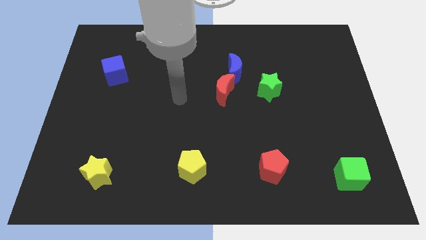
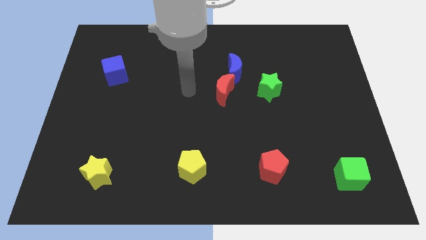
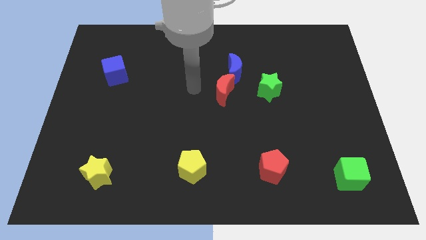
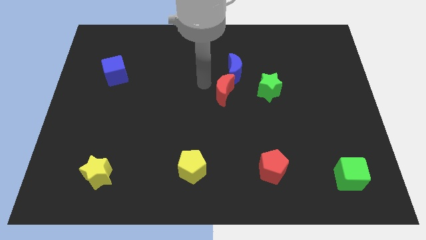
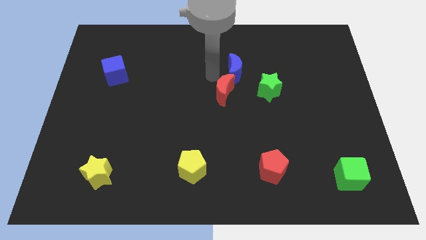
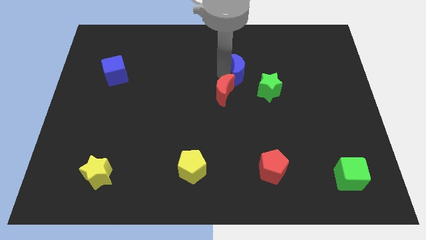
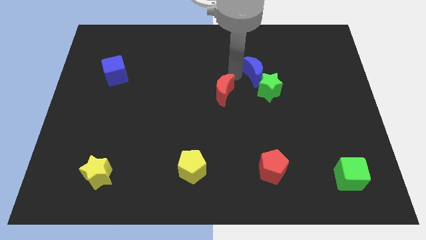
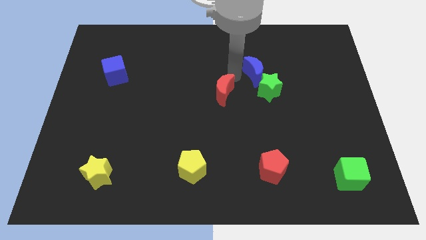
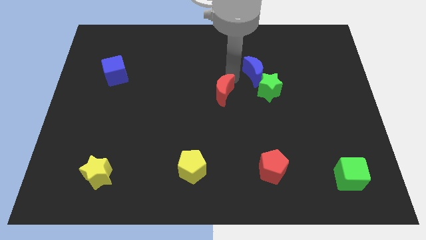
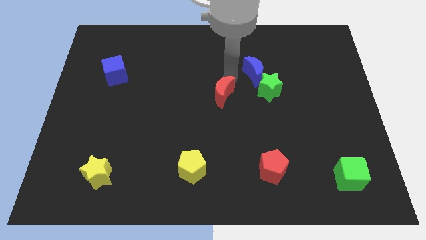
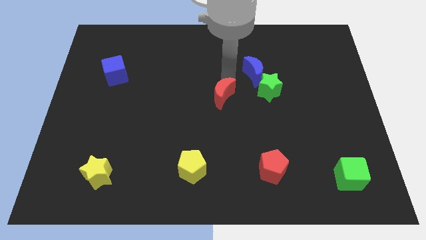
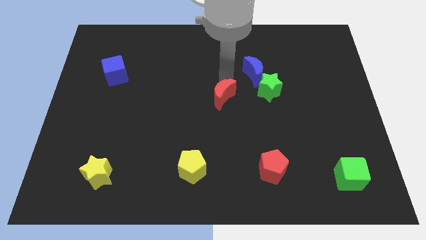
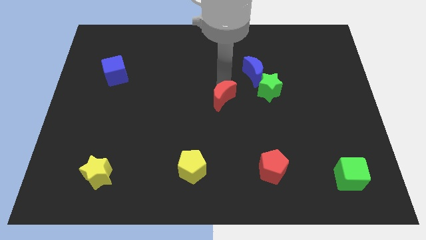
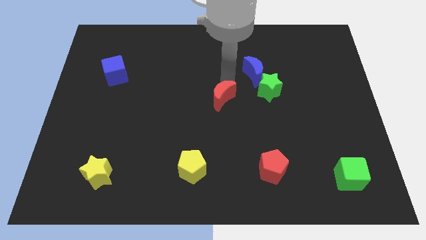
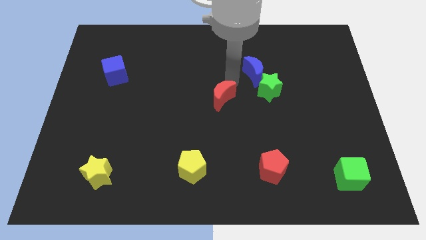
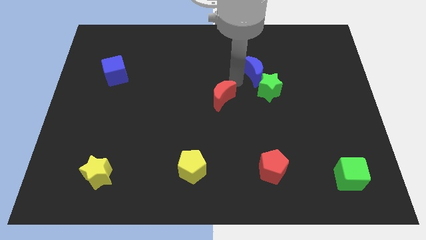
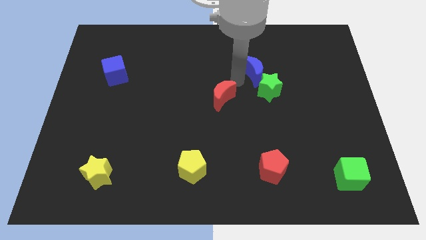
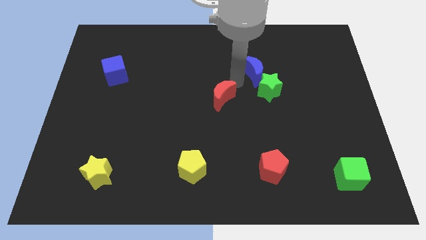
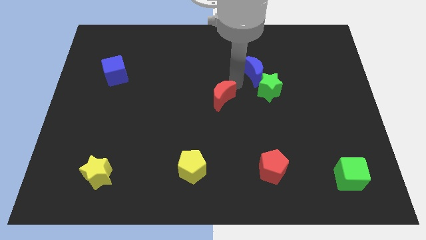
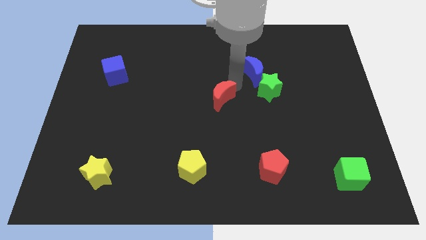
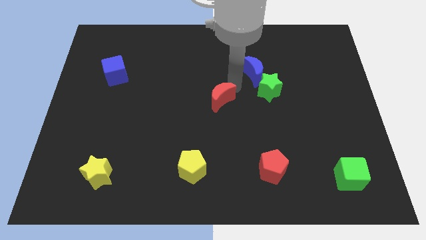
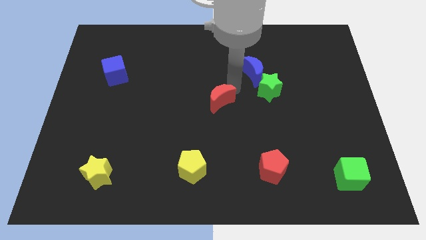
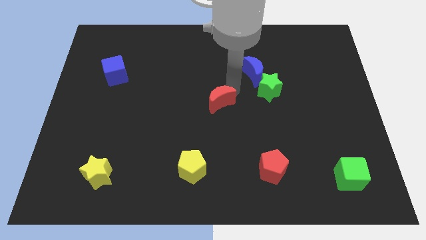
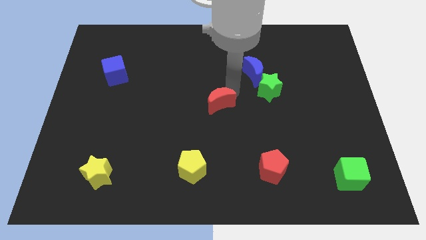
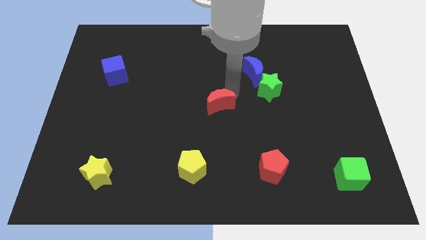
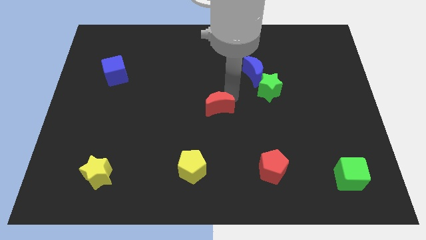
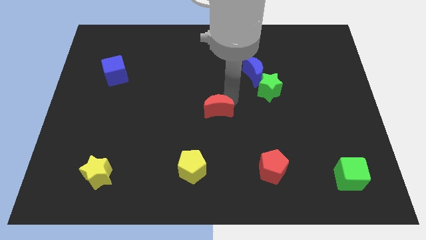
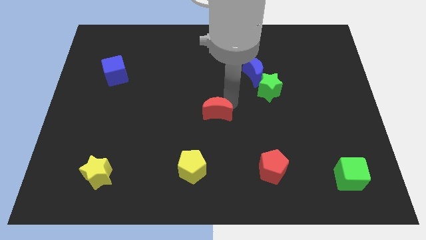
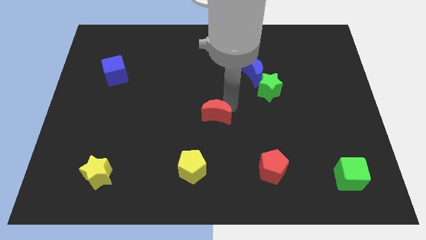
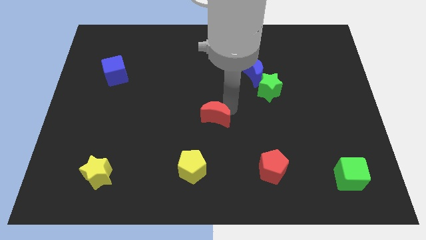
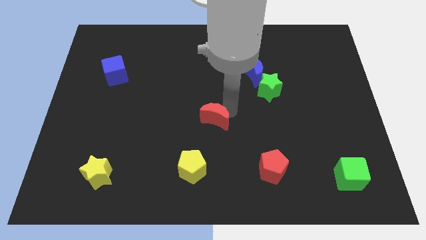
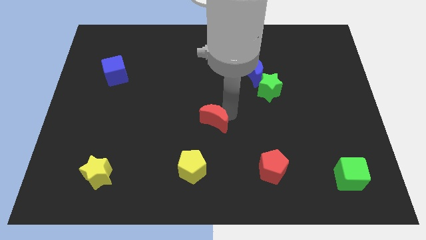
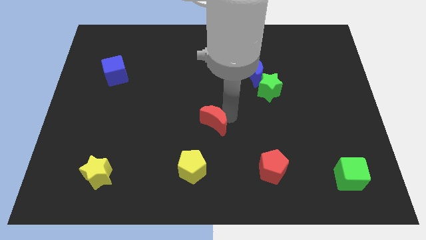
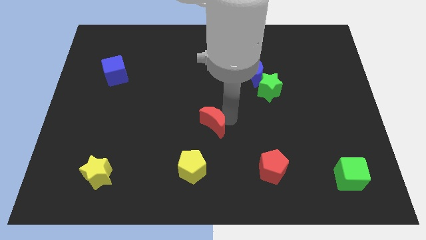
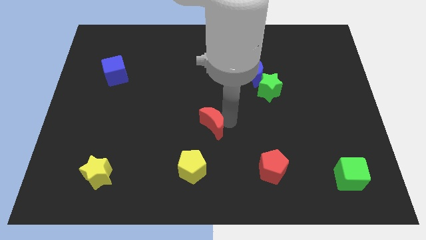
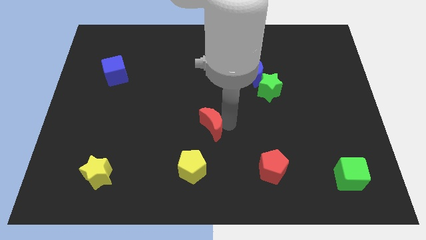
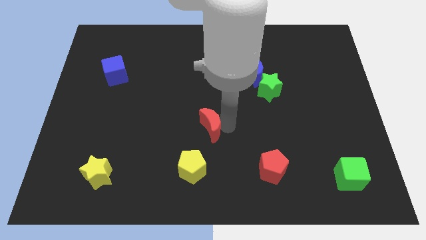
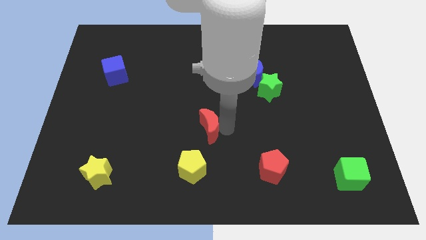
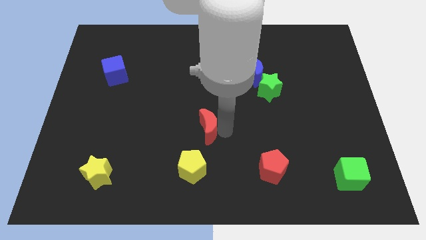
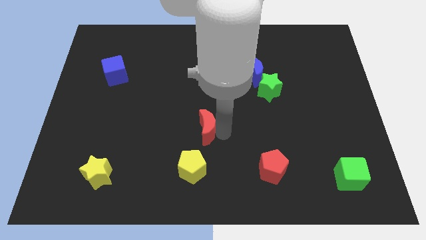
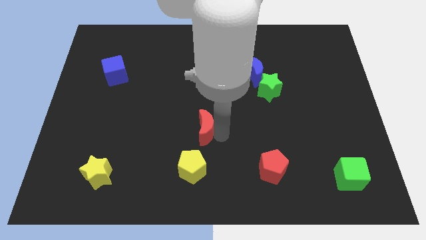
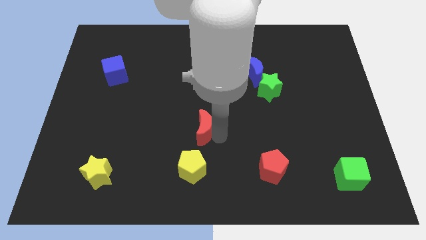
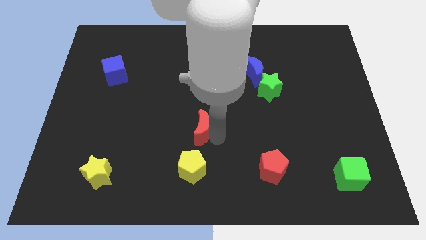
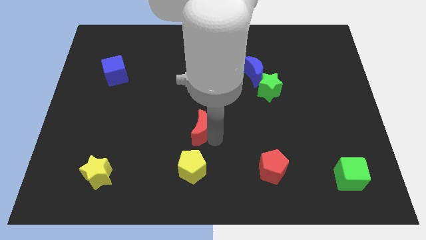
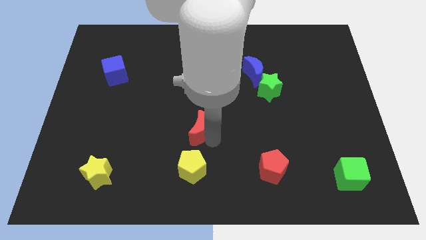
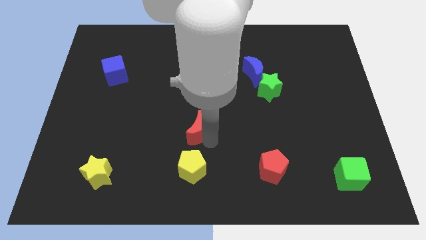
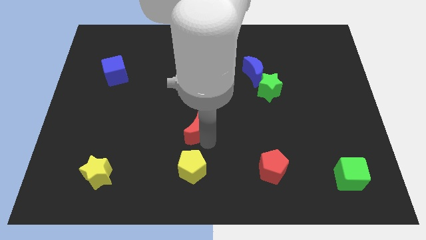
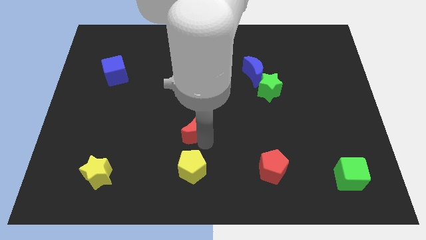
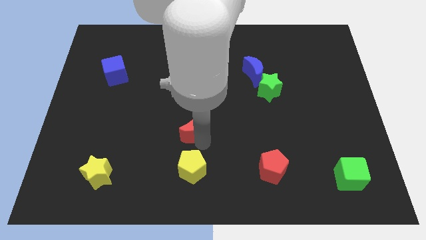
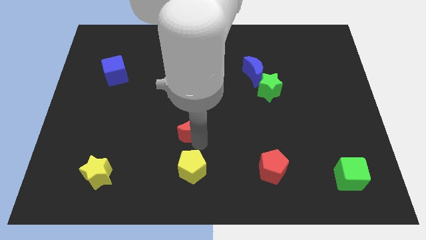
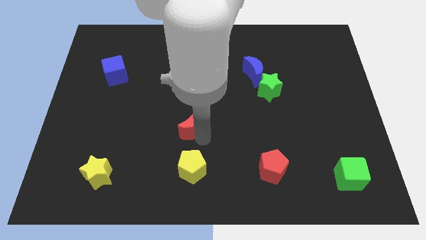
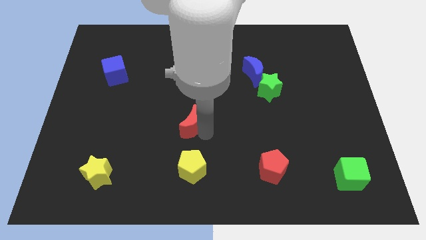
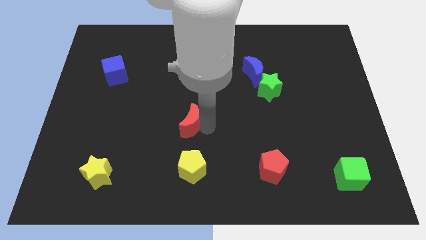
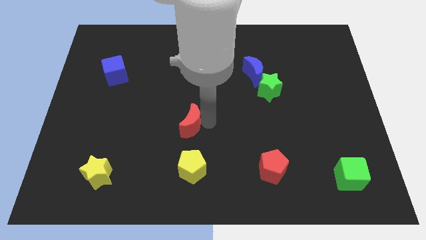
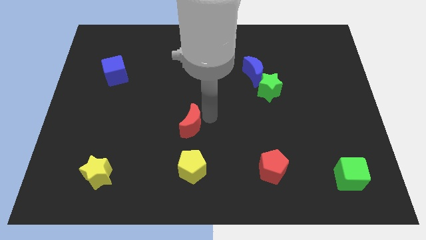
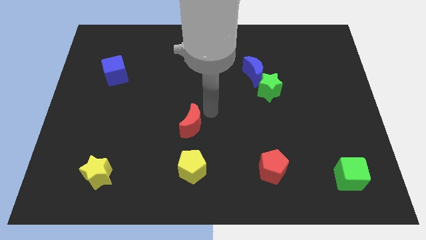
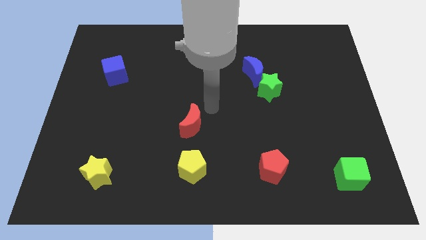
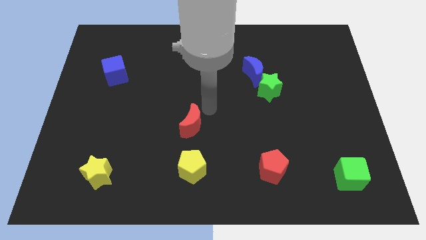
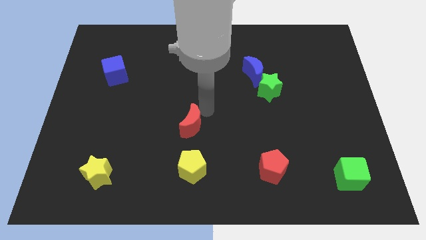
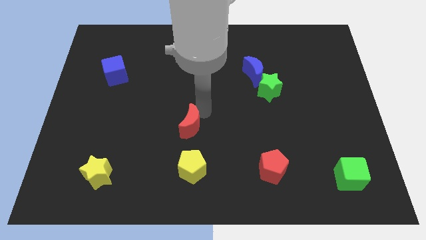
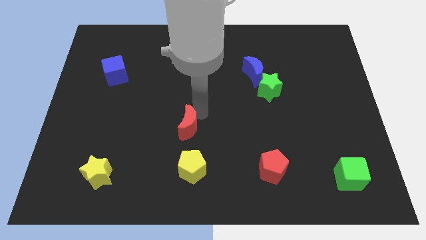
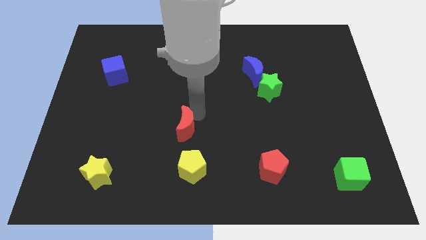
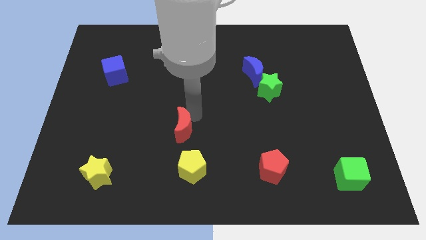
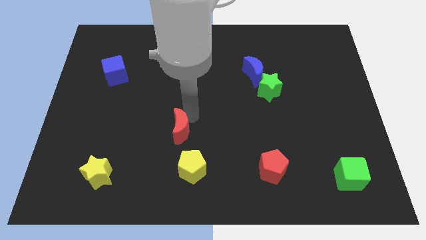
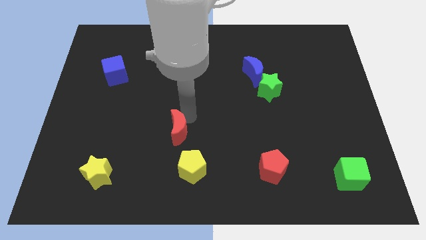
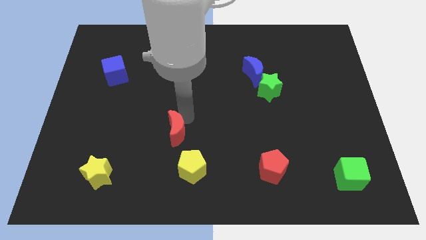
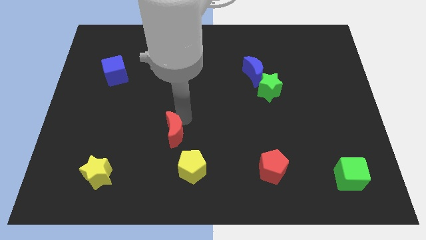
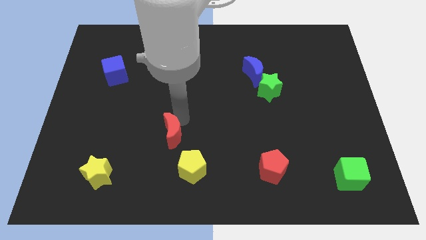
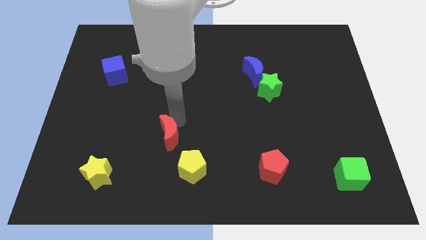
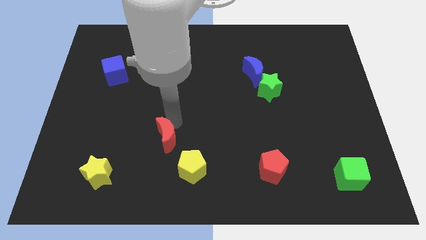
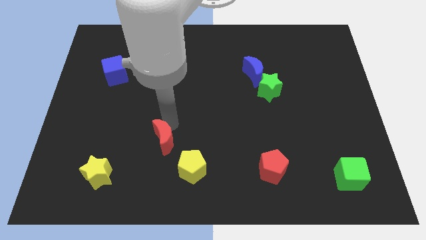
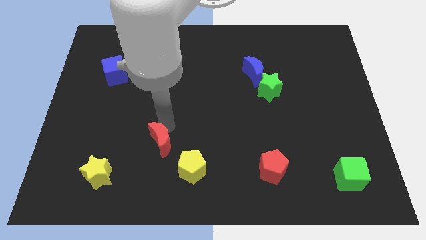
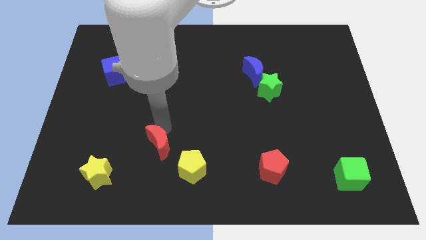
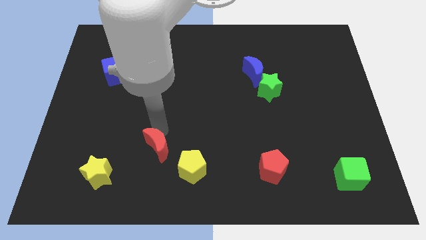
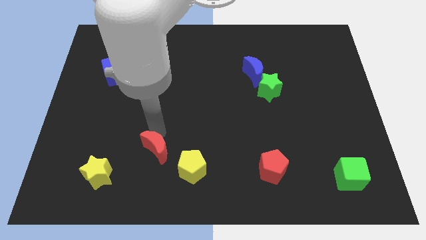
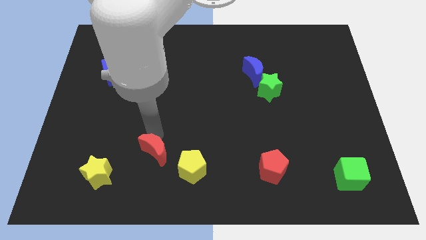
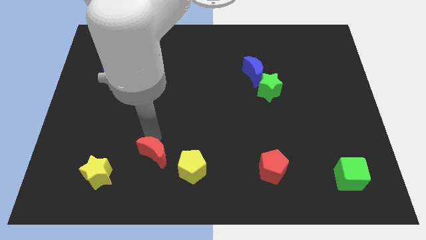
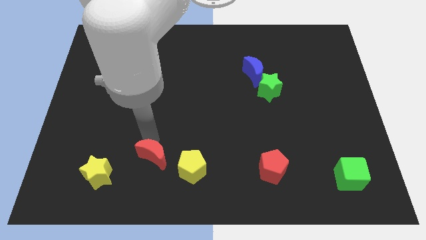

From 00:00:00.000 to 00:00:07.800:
move the red moon to the right of the yellow star
